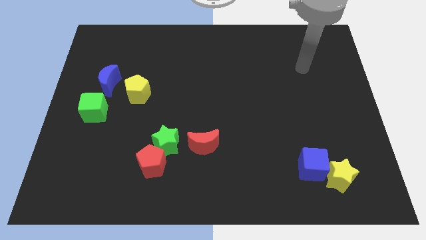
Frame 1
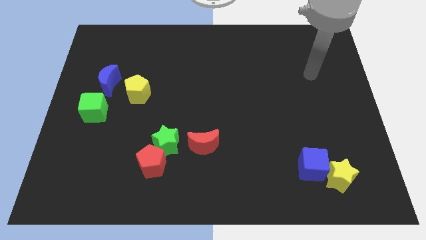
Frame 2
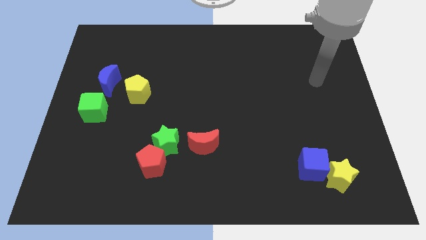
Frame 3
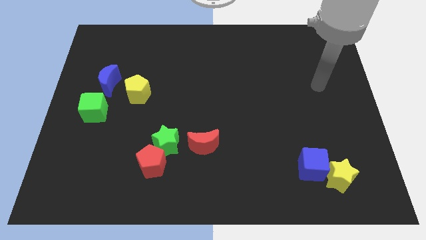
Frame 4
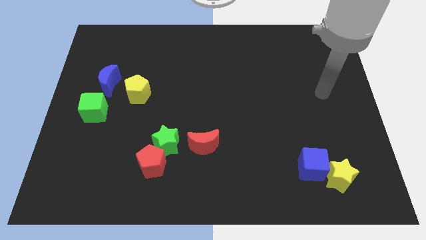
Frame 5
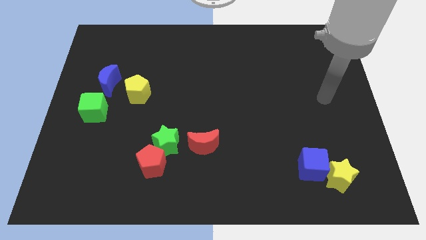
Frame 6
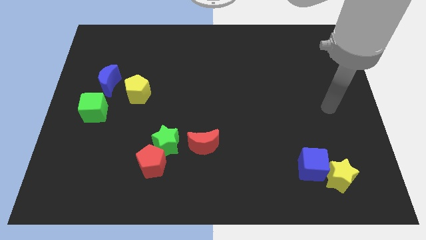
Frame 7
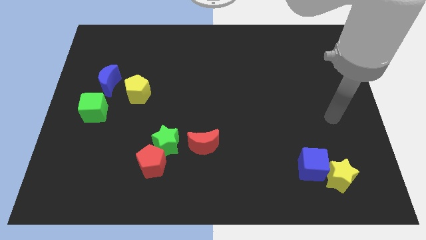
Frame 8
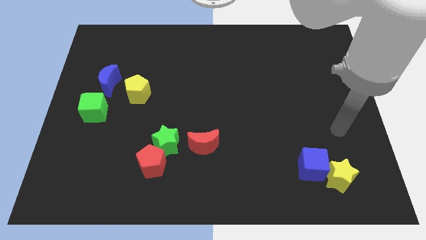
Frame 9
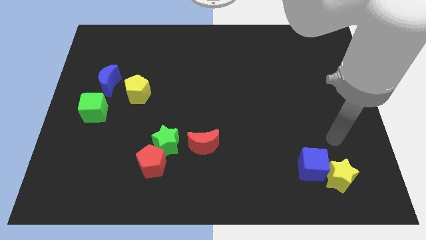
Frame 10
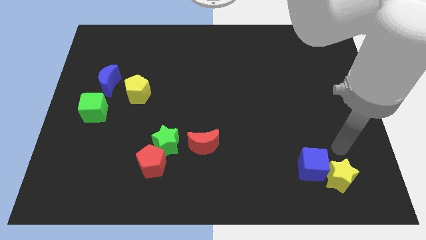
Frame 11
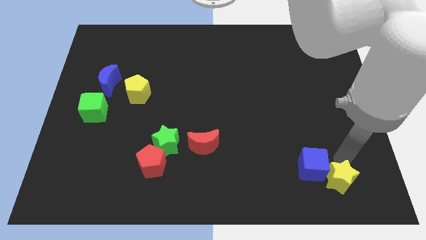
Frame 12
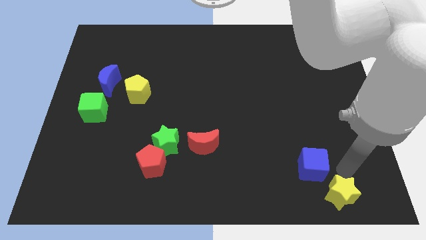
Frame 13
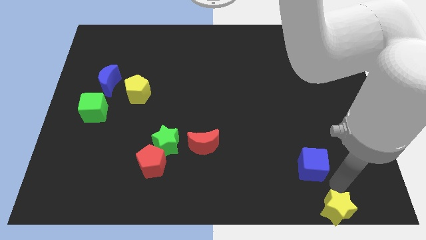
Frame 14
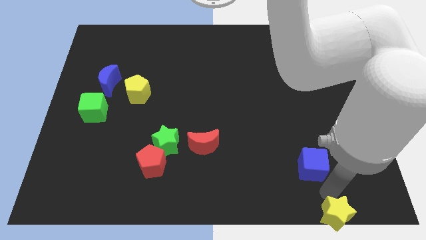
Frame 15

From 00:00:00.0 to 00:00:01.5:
separate the blue cube from the yellow star

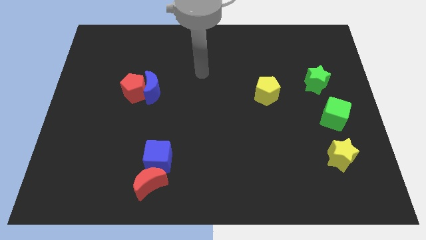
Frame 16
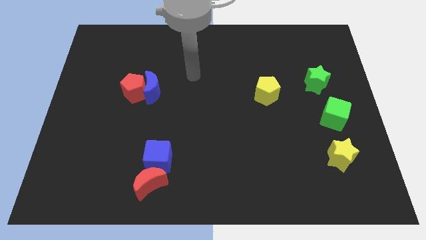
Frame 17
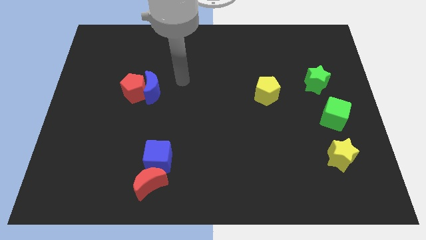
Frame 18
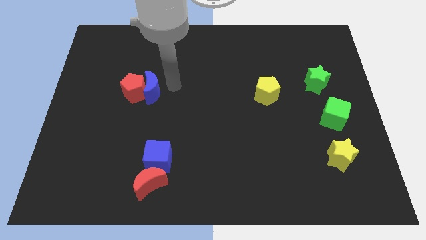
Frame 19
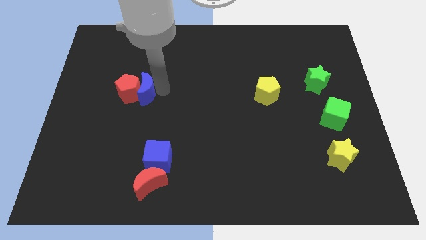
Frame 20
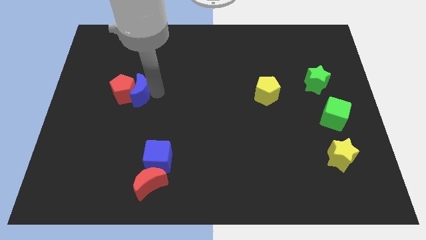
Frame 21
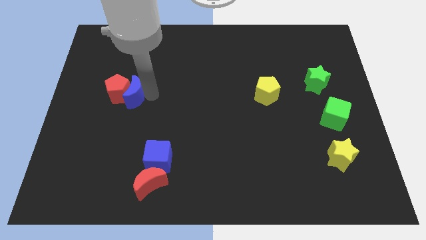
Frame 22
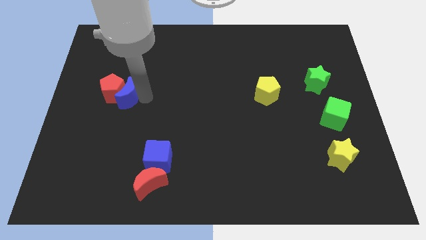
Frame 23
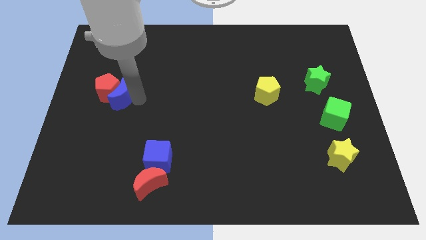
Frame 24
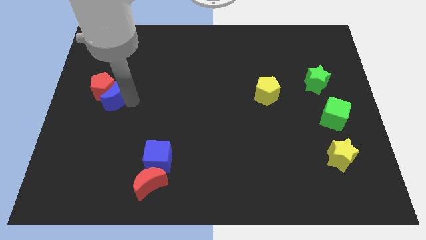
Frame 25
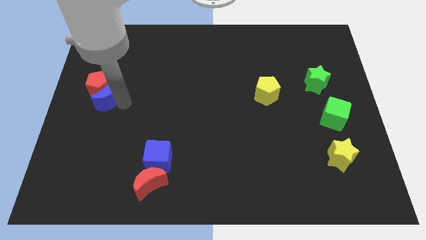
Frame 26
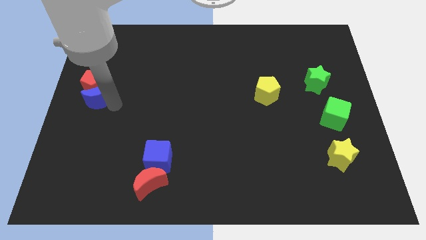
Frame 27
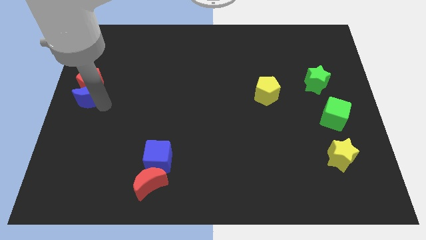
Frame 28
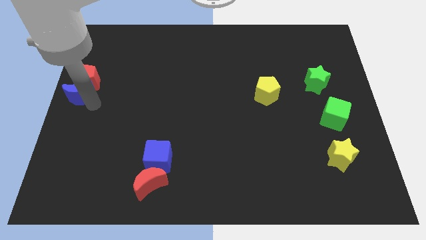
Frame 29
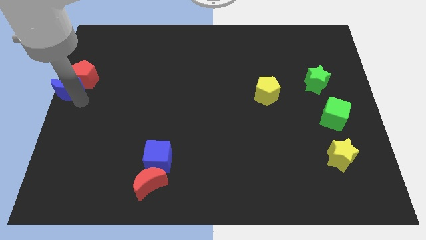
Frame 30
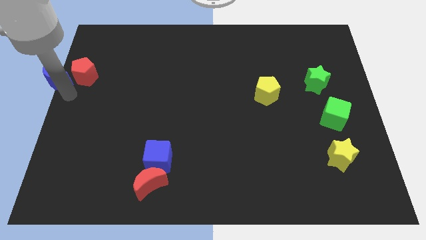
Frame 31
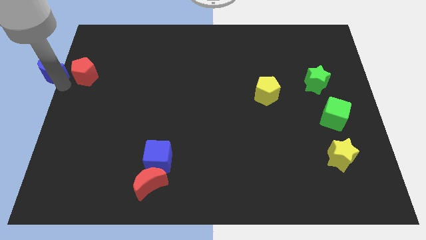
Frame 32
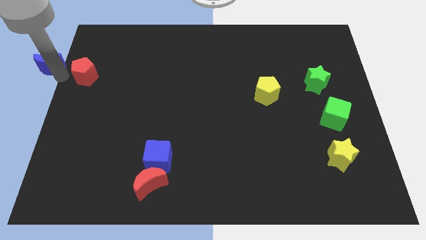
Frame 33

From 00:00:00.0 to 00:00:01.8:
move the red pentagon away from the blue moon

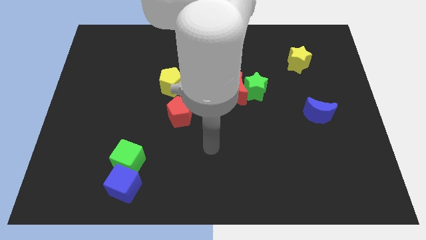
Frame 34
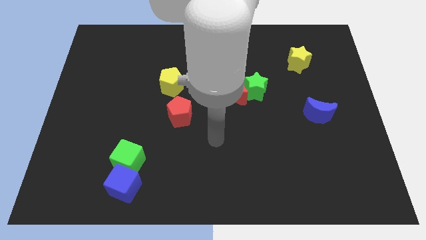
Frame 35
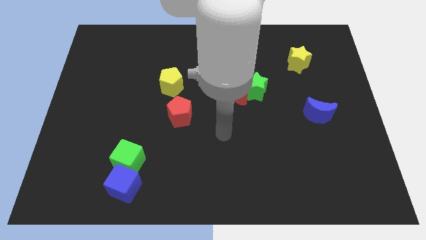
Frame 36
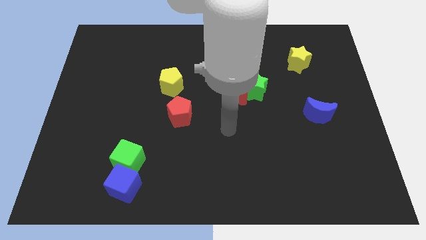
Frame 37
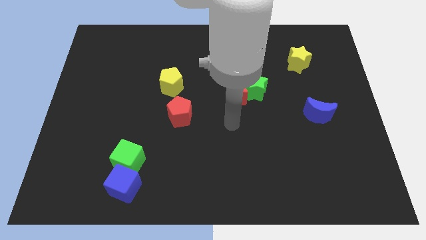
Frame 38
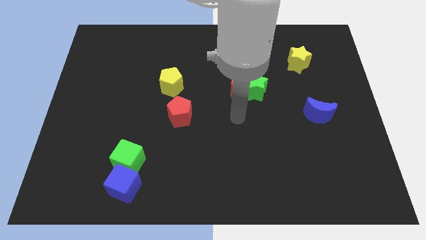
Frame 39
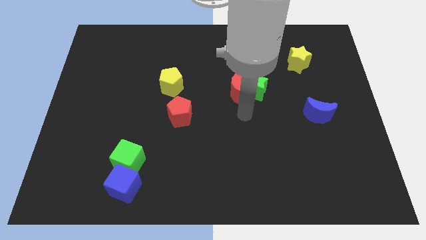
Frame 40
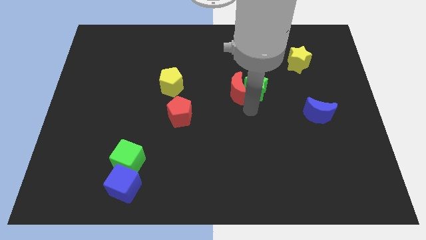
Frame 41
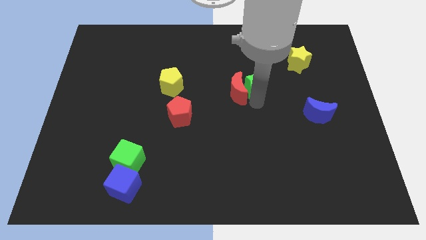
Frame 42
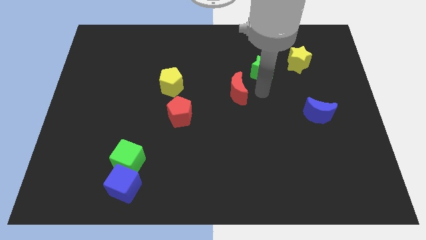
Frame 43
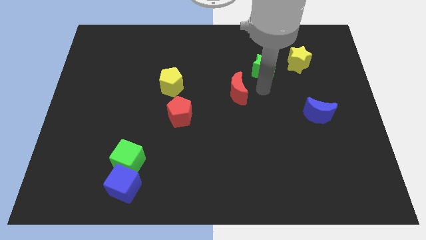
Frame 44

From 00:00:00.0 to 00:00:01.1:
move the red moon away from the green star

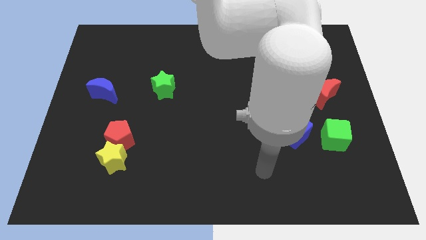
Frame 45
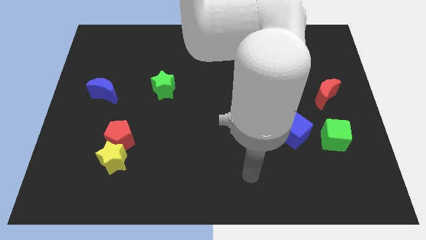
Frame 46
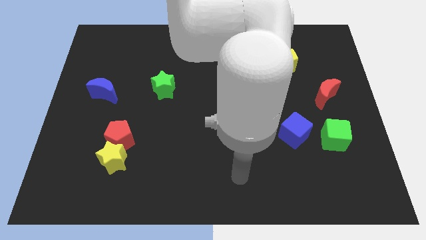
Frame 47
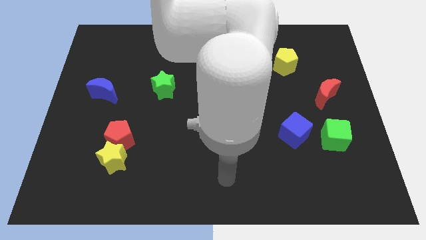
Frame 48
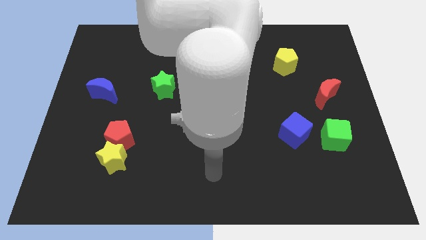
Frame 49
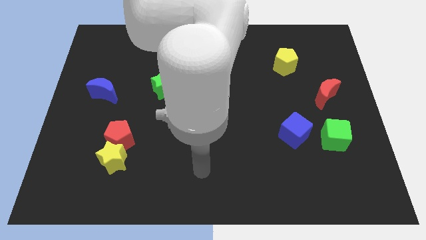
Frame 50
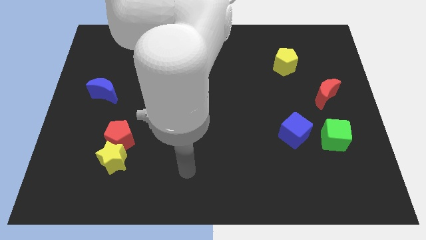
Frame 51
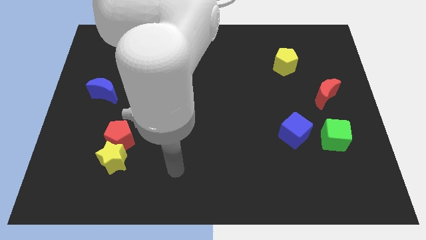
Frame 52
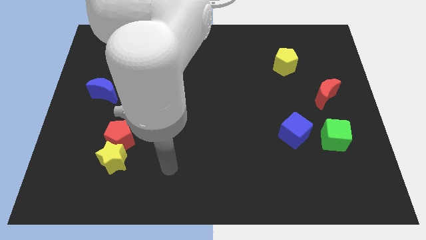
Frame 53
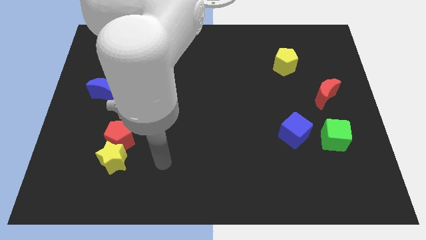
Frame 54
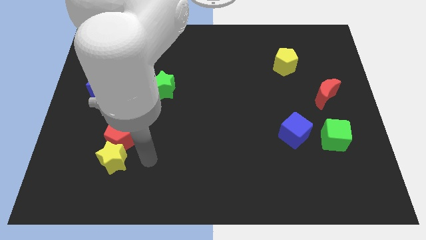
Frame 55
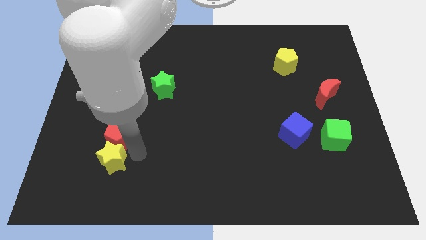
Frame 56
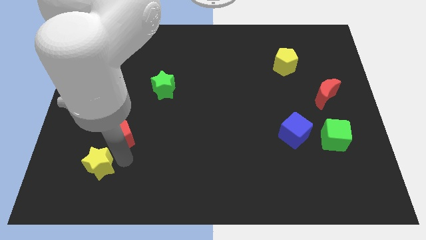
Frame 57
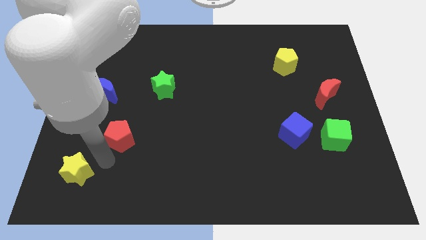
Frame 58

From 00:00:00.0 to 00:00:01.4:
separate the red pentagon from the yellow star

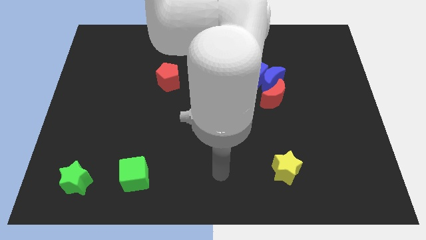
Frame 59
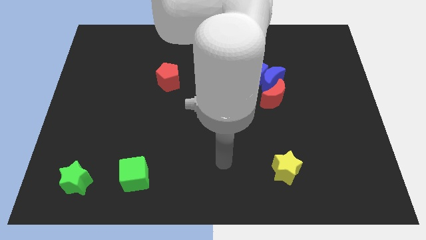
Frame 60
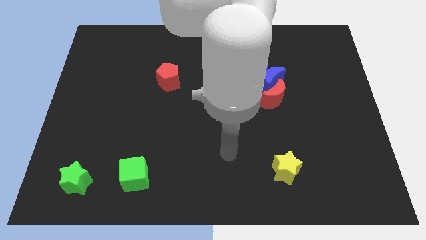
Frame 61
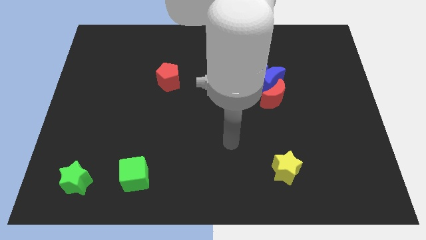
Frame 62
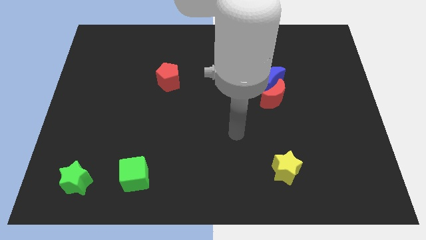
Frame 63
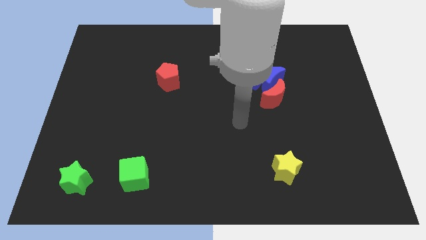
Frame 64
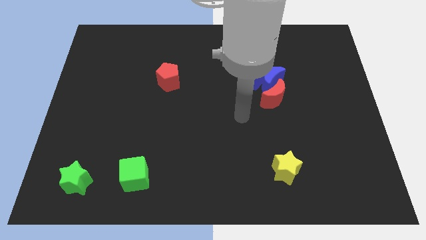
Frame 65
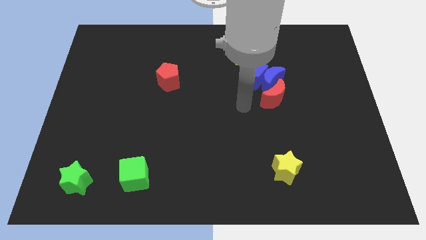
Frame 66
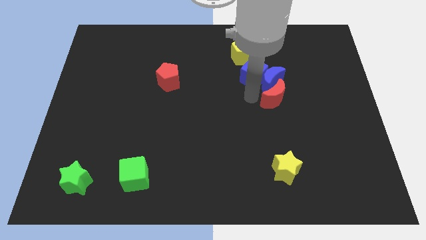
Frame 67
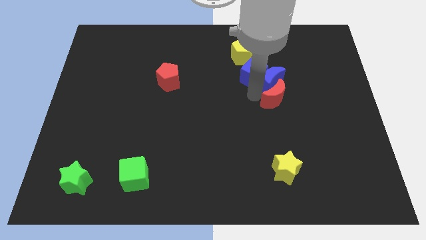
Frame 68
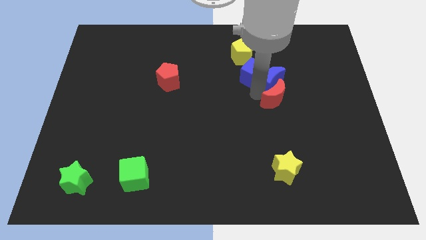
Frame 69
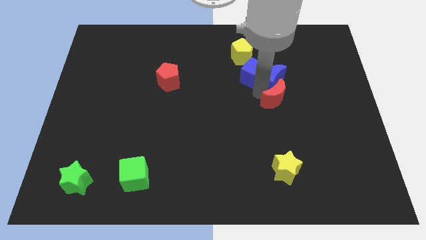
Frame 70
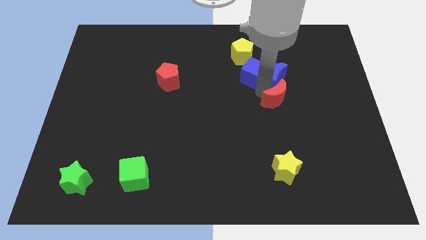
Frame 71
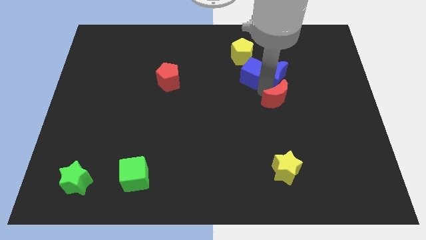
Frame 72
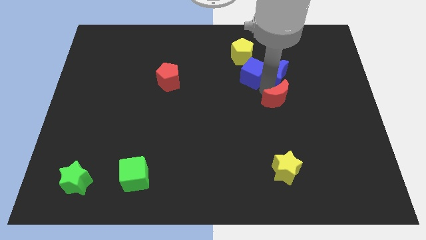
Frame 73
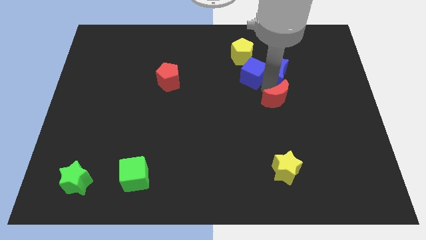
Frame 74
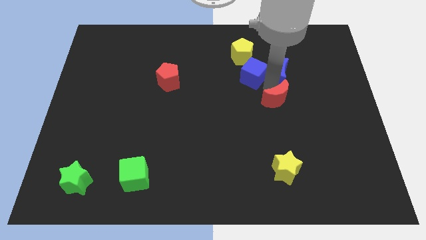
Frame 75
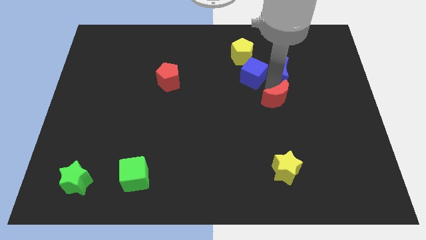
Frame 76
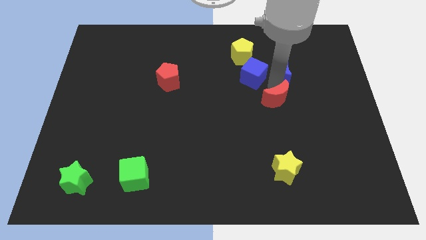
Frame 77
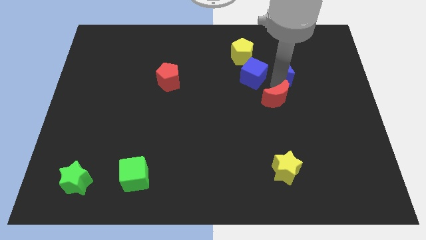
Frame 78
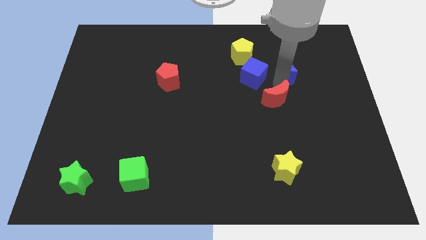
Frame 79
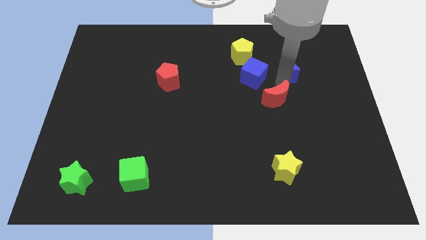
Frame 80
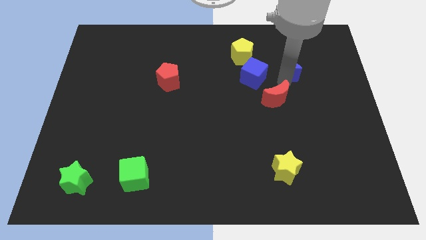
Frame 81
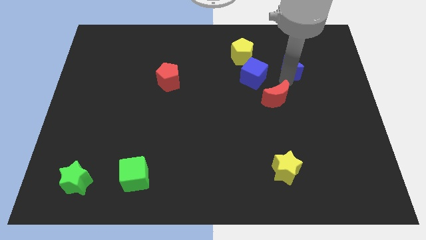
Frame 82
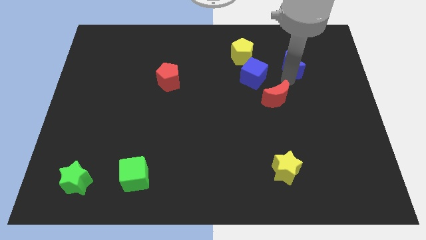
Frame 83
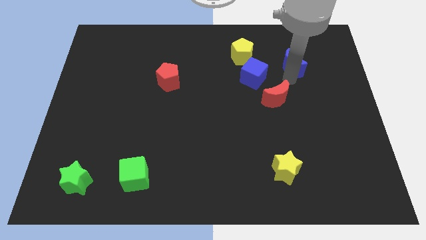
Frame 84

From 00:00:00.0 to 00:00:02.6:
pull the blue moon apart from the blue cube and red moon

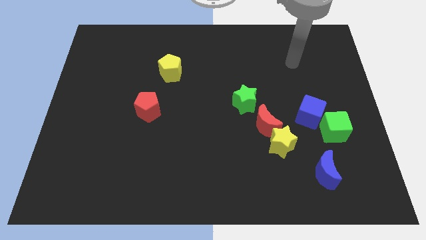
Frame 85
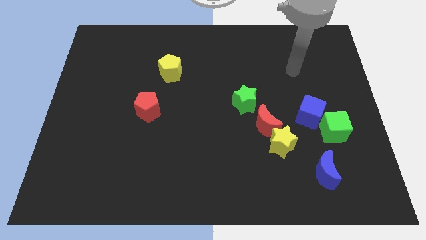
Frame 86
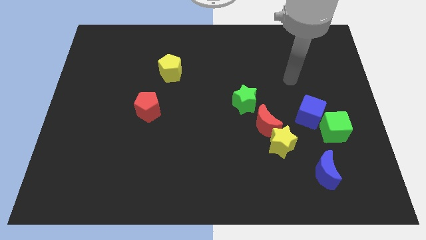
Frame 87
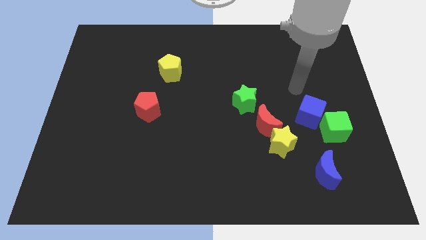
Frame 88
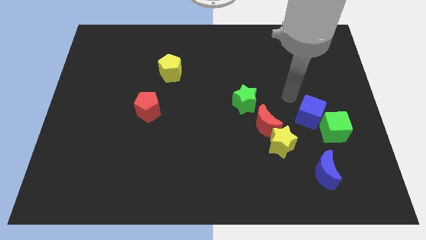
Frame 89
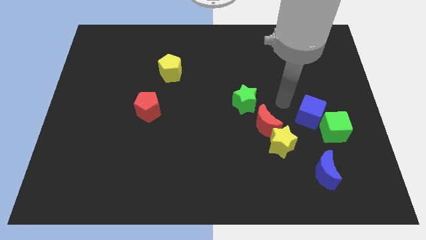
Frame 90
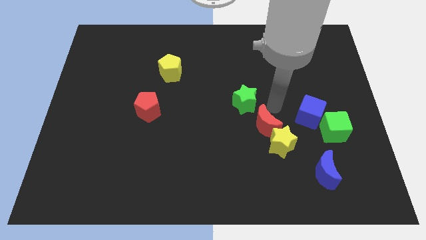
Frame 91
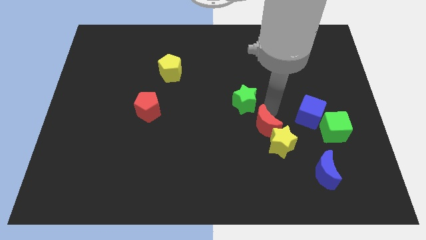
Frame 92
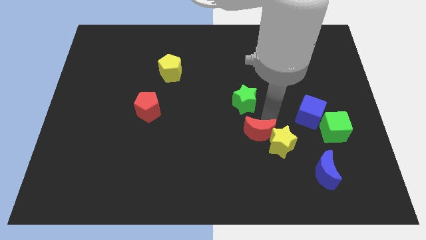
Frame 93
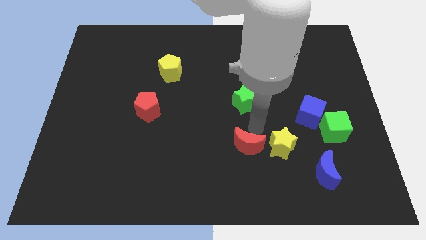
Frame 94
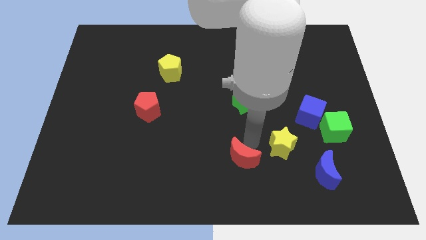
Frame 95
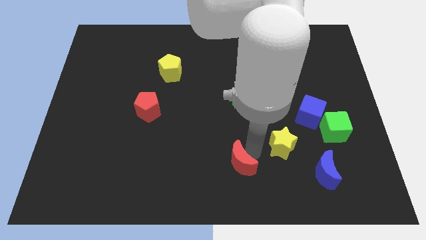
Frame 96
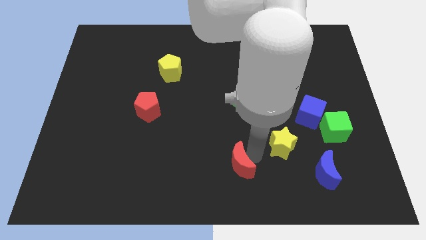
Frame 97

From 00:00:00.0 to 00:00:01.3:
pull the yellow star apart from the red moon
